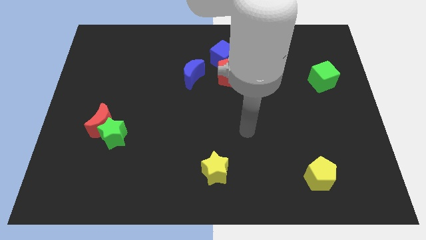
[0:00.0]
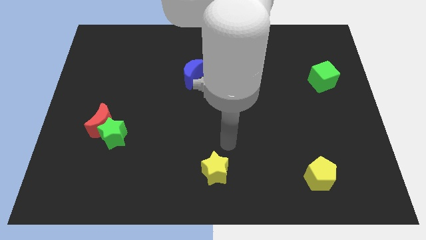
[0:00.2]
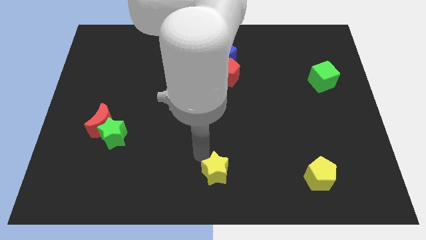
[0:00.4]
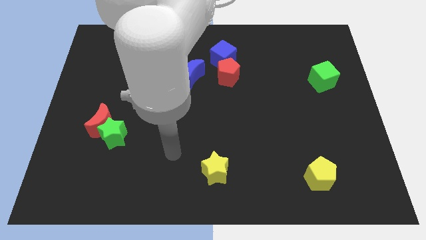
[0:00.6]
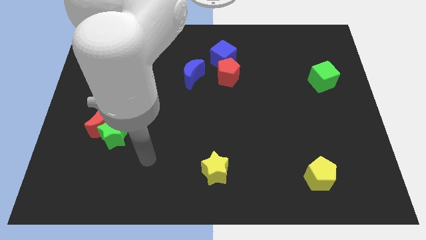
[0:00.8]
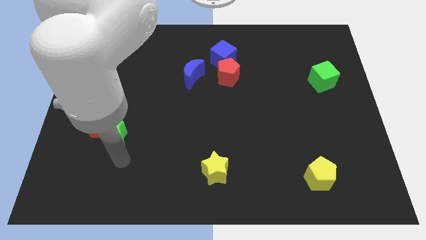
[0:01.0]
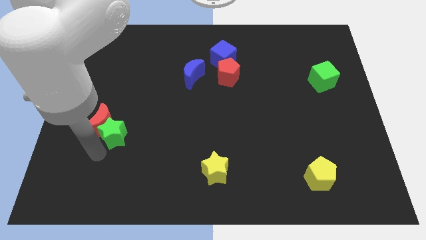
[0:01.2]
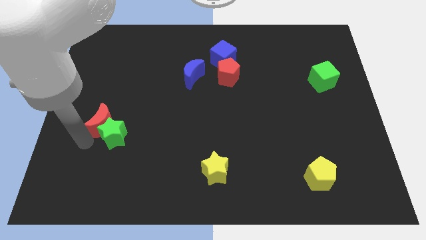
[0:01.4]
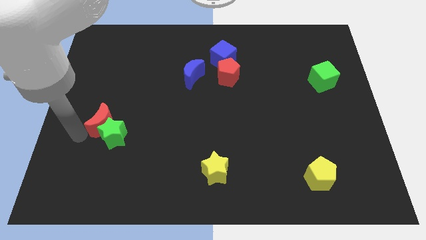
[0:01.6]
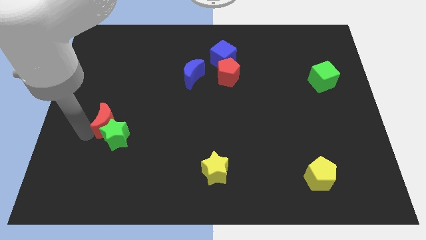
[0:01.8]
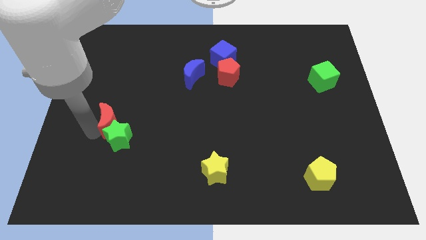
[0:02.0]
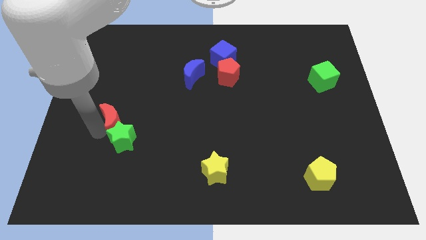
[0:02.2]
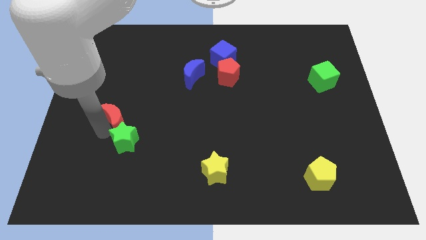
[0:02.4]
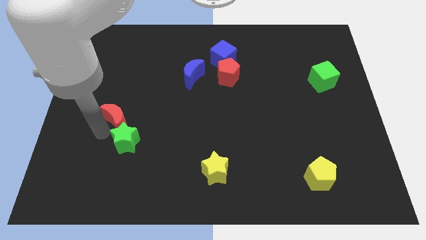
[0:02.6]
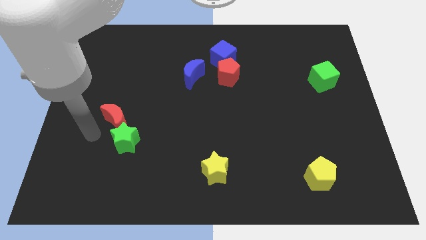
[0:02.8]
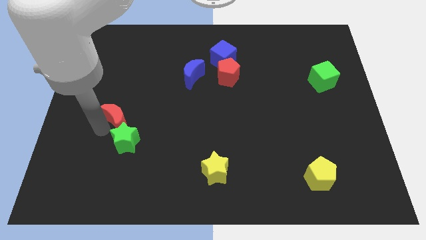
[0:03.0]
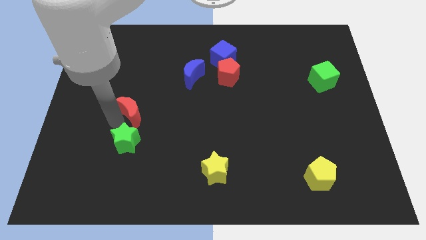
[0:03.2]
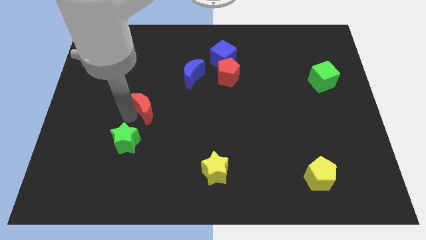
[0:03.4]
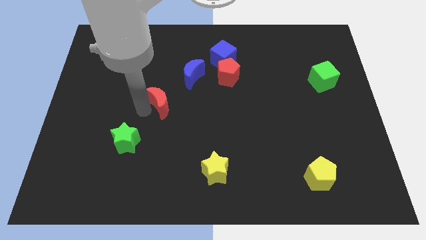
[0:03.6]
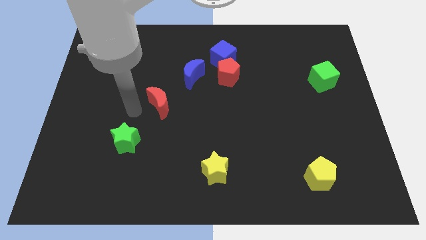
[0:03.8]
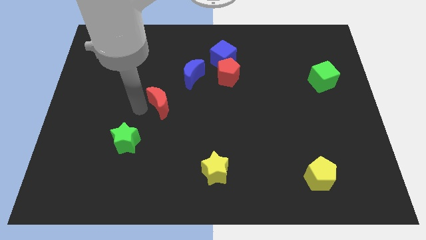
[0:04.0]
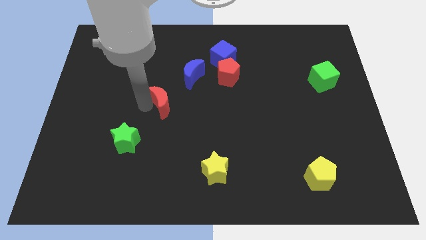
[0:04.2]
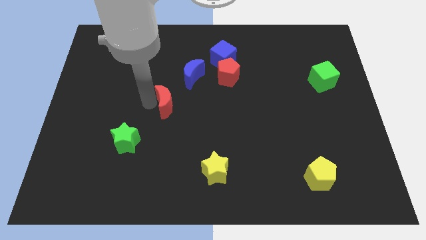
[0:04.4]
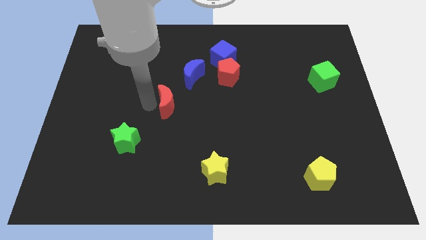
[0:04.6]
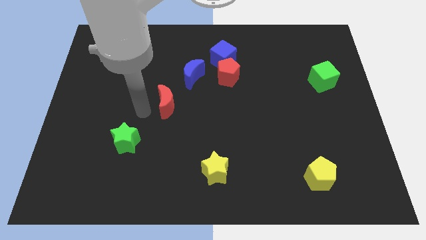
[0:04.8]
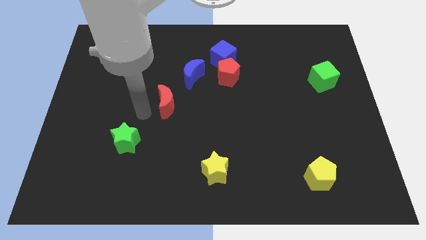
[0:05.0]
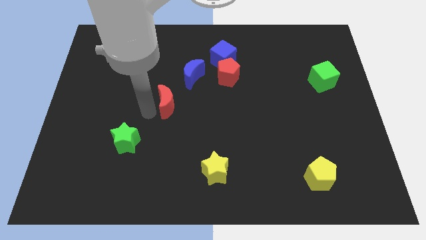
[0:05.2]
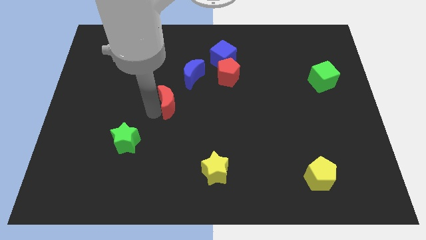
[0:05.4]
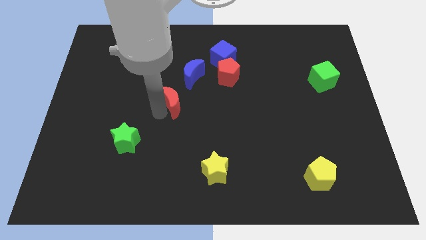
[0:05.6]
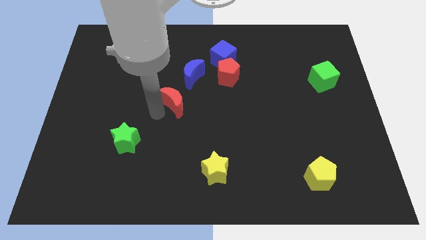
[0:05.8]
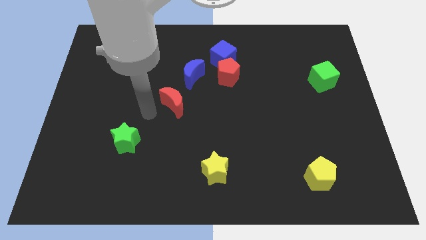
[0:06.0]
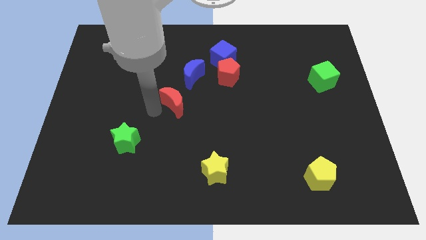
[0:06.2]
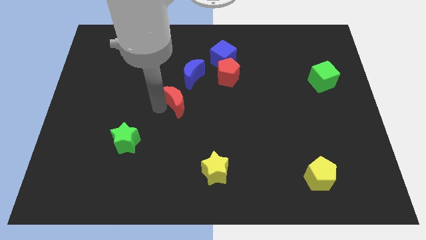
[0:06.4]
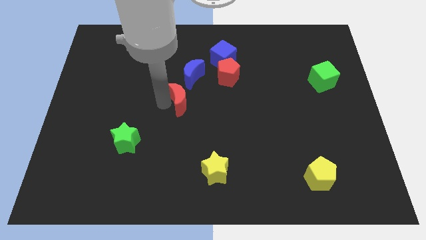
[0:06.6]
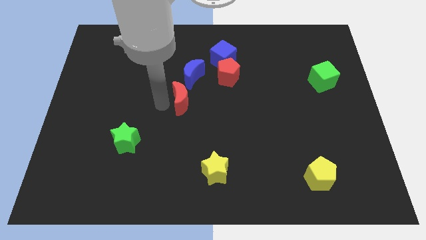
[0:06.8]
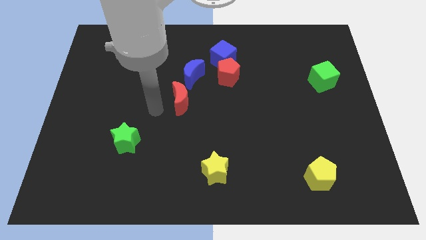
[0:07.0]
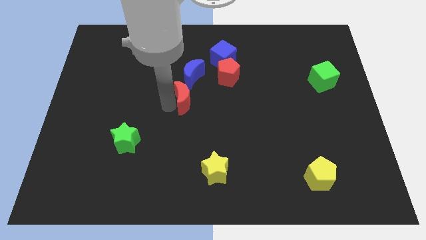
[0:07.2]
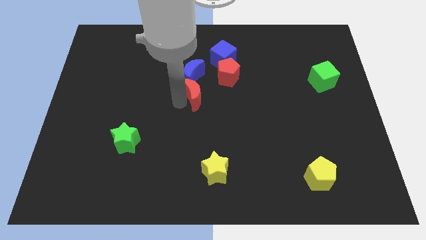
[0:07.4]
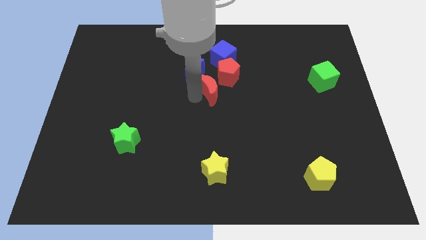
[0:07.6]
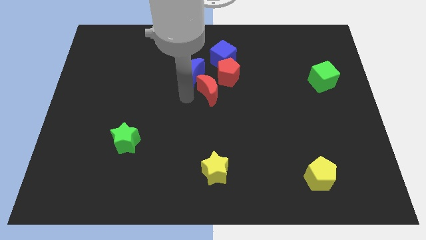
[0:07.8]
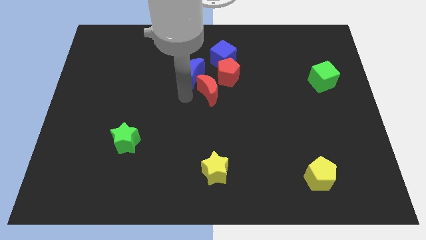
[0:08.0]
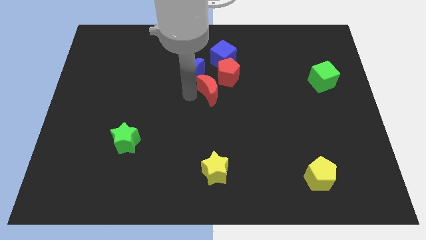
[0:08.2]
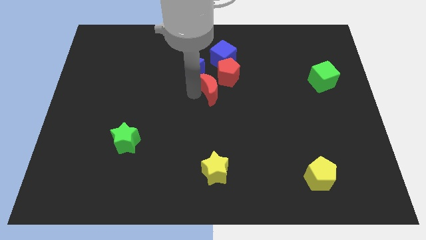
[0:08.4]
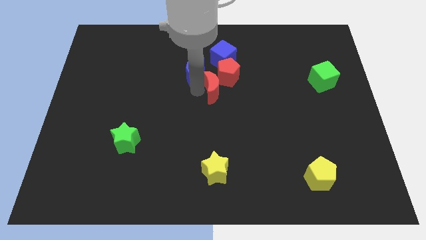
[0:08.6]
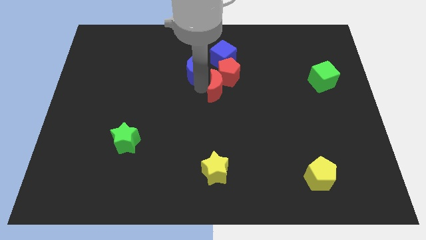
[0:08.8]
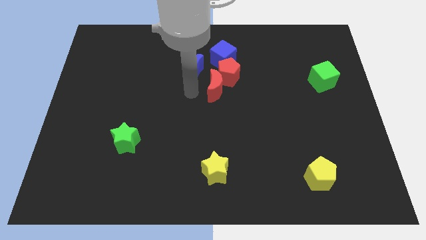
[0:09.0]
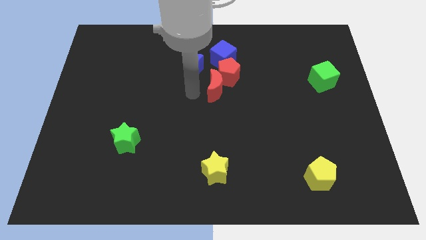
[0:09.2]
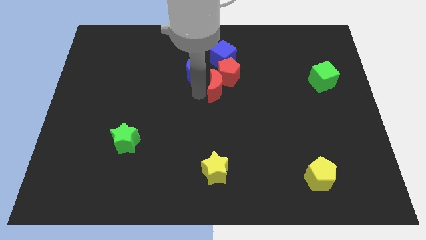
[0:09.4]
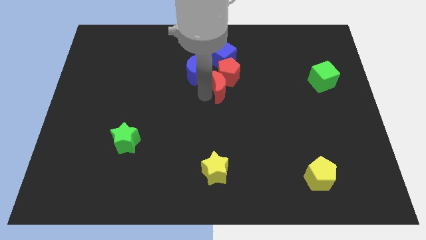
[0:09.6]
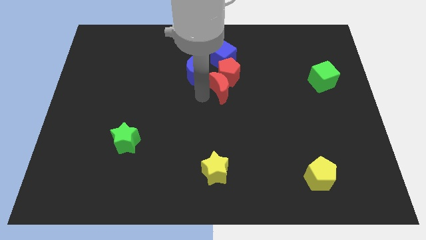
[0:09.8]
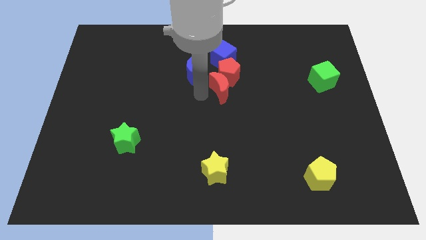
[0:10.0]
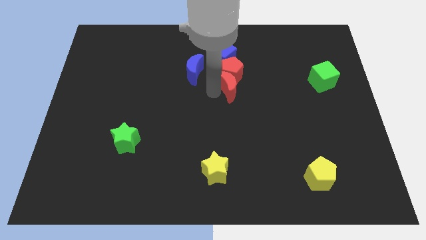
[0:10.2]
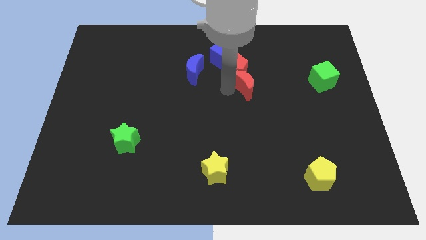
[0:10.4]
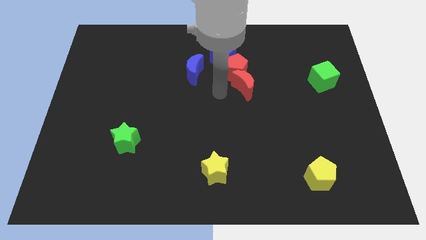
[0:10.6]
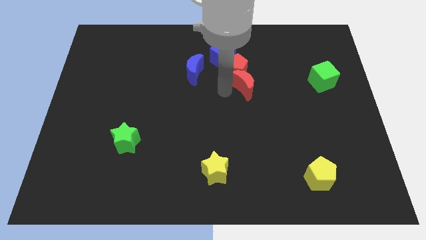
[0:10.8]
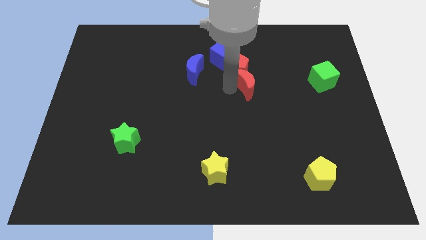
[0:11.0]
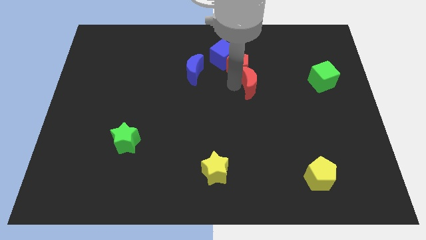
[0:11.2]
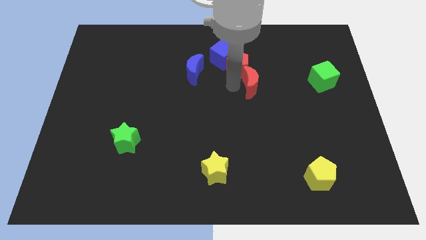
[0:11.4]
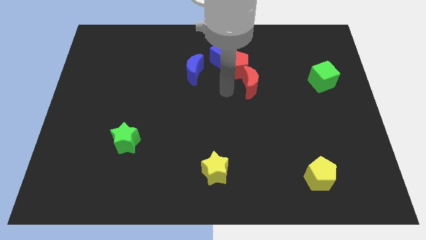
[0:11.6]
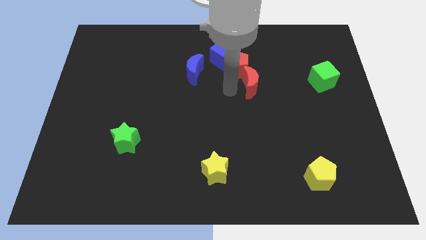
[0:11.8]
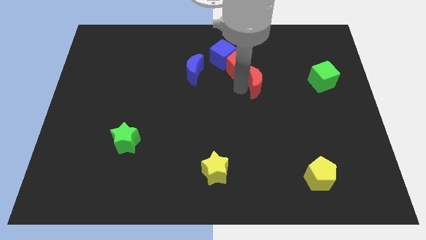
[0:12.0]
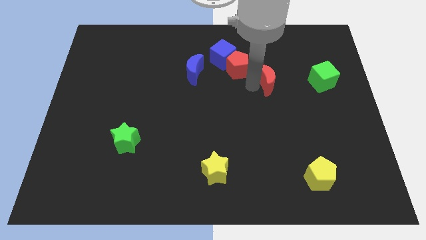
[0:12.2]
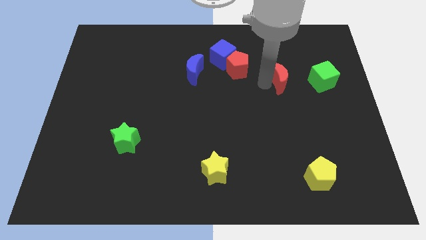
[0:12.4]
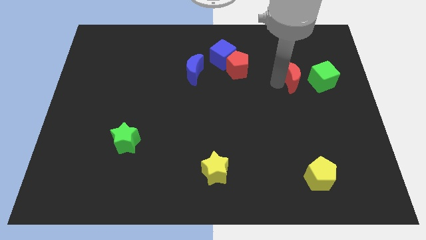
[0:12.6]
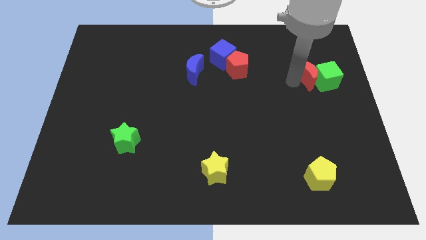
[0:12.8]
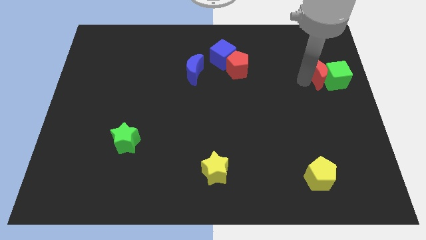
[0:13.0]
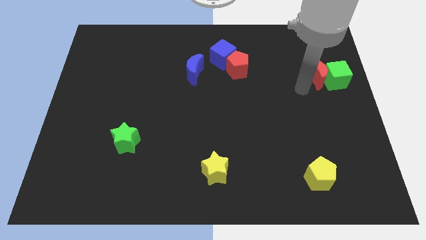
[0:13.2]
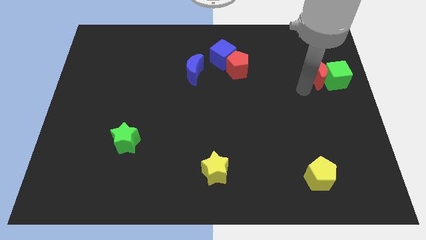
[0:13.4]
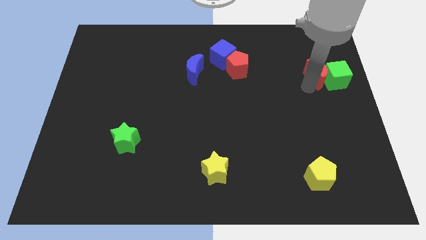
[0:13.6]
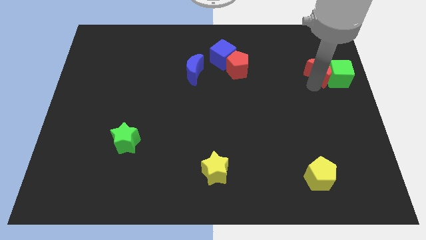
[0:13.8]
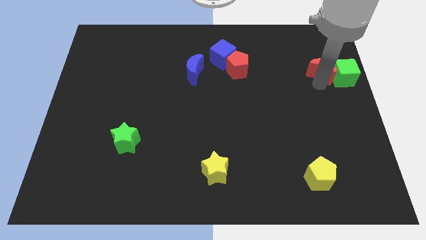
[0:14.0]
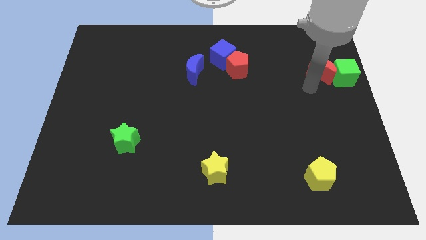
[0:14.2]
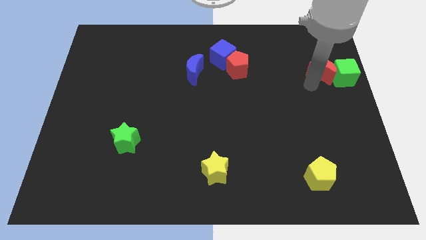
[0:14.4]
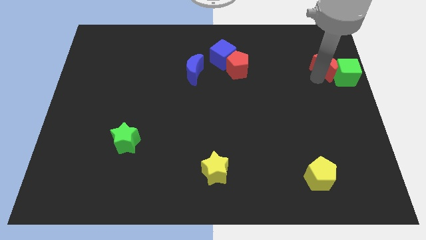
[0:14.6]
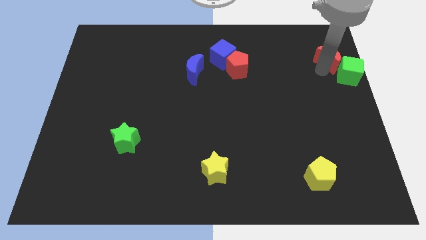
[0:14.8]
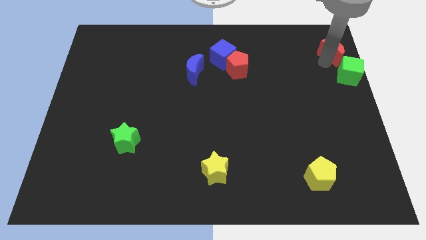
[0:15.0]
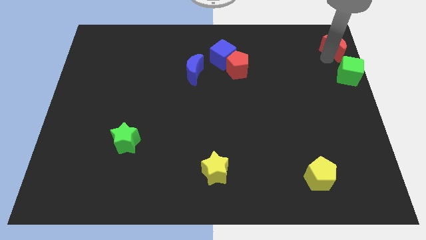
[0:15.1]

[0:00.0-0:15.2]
move the red moon to the top right
